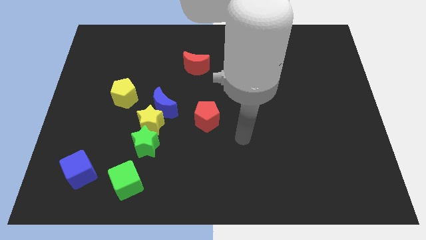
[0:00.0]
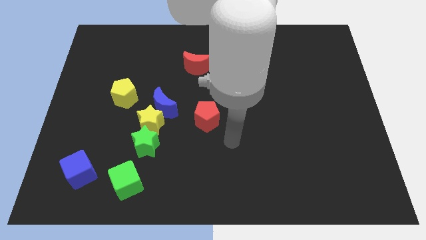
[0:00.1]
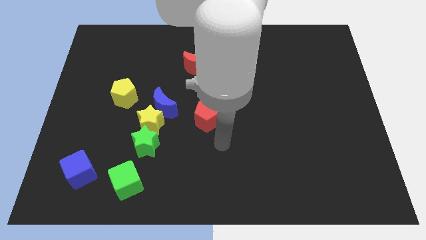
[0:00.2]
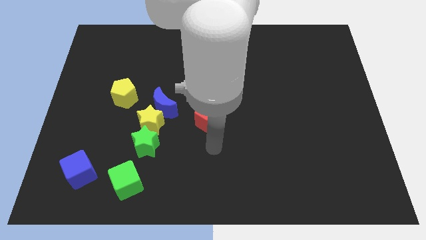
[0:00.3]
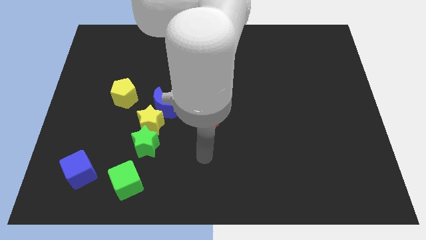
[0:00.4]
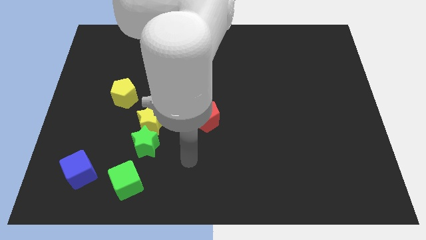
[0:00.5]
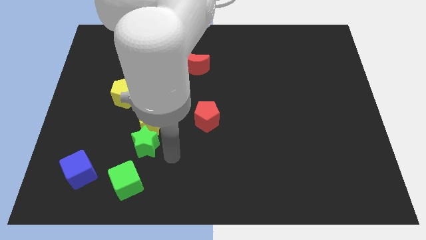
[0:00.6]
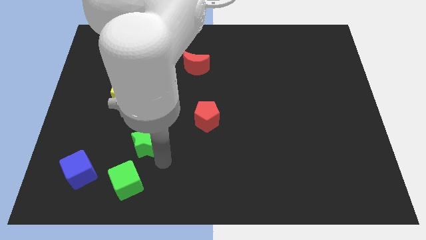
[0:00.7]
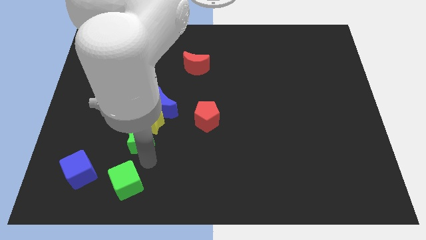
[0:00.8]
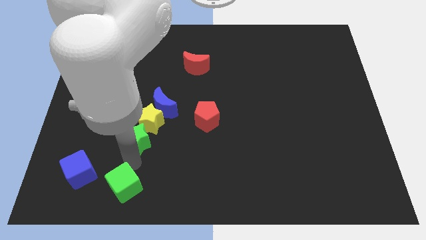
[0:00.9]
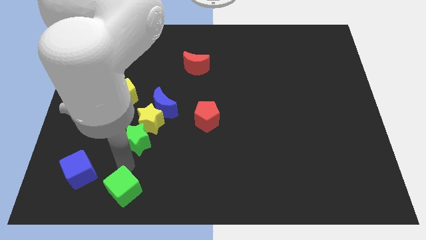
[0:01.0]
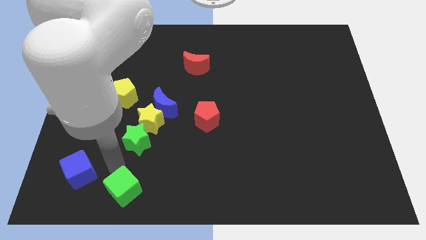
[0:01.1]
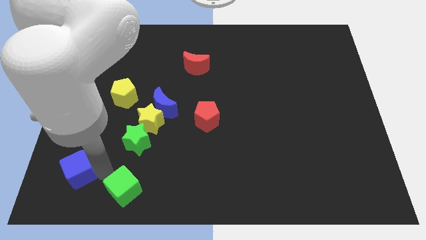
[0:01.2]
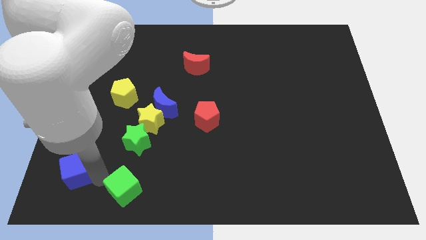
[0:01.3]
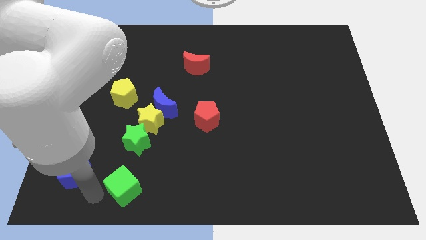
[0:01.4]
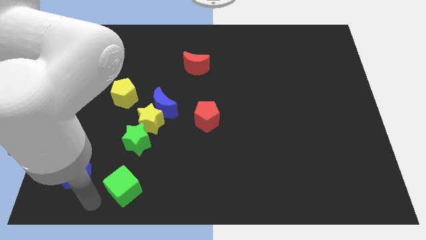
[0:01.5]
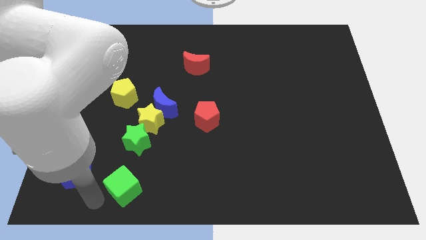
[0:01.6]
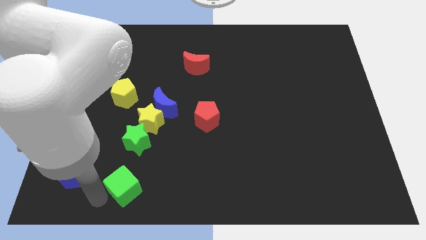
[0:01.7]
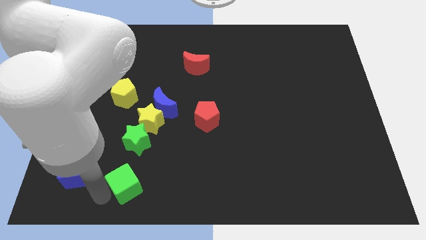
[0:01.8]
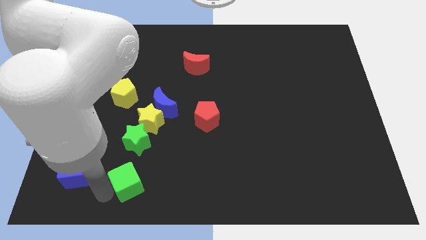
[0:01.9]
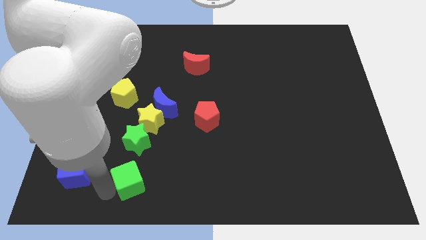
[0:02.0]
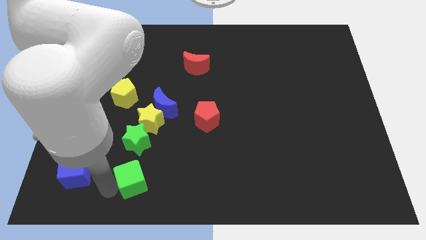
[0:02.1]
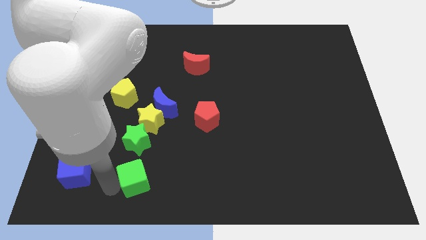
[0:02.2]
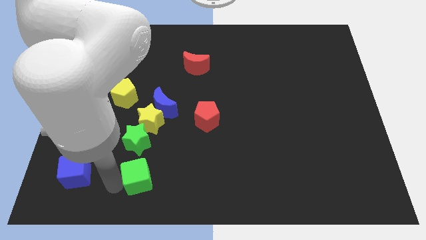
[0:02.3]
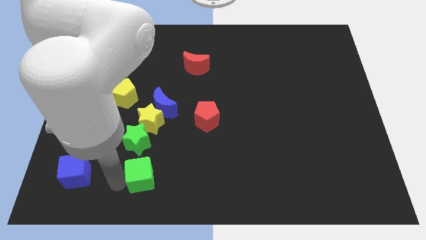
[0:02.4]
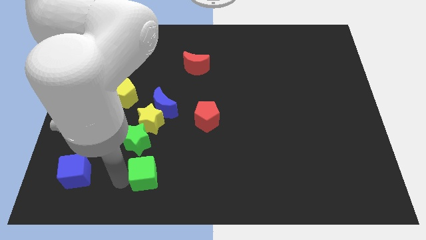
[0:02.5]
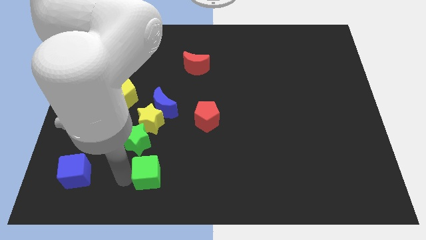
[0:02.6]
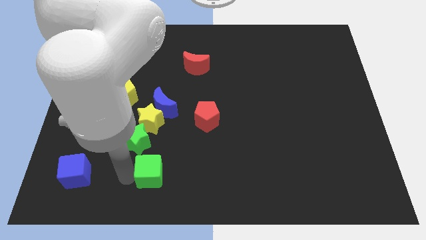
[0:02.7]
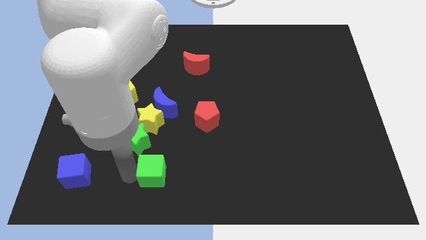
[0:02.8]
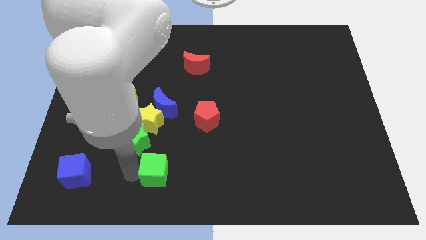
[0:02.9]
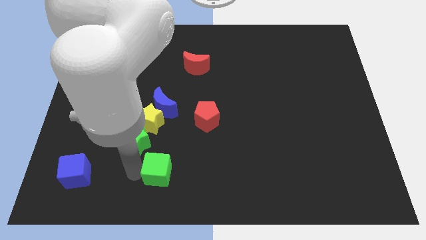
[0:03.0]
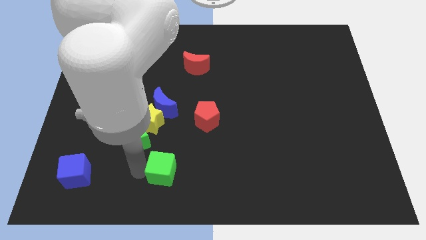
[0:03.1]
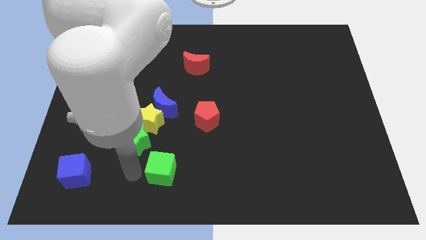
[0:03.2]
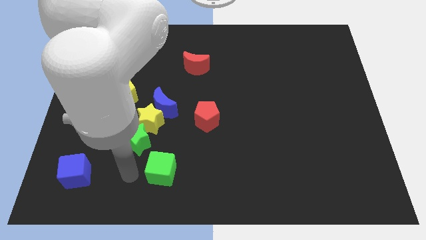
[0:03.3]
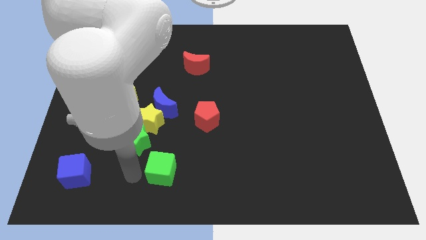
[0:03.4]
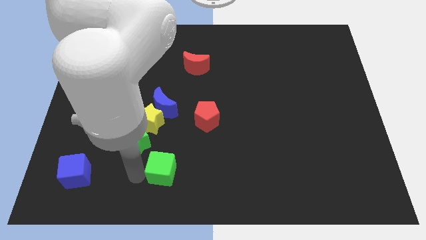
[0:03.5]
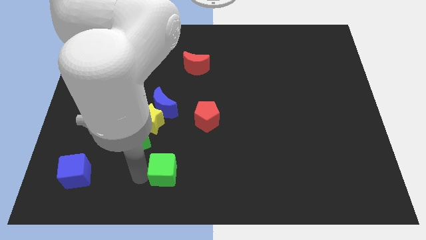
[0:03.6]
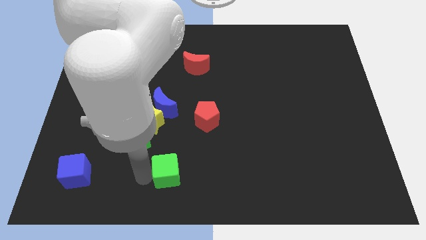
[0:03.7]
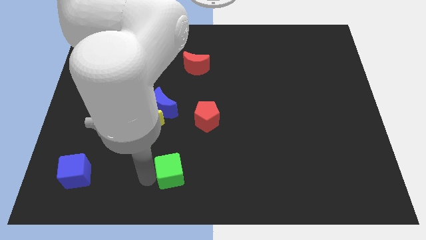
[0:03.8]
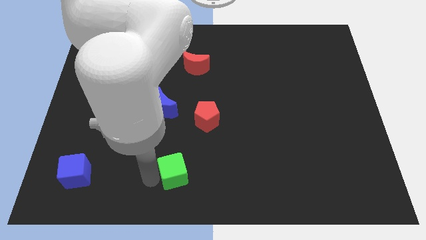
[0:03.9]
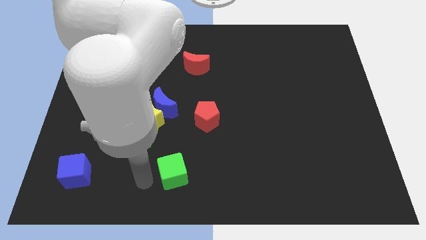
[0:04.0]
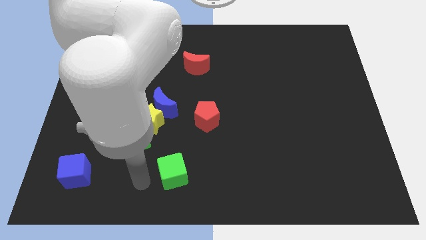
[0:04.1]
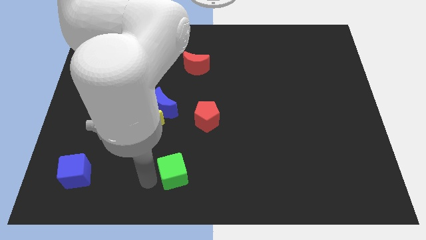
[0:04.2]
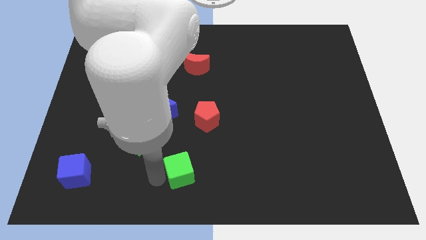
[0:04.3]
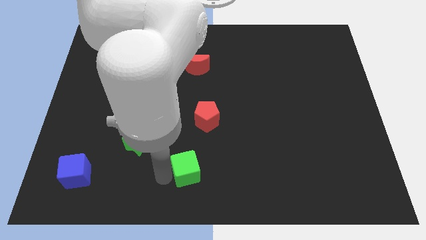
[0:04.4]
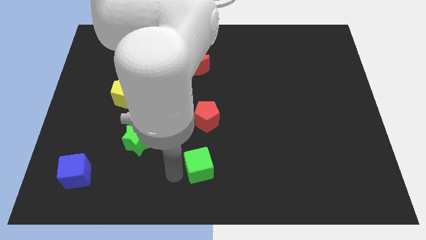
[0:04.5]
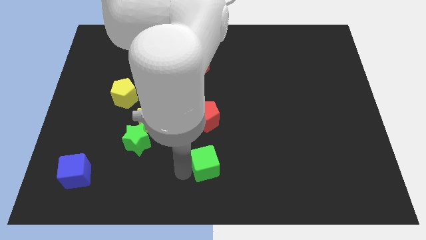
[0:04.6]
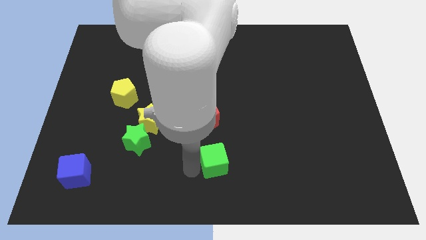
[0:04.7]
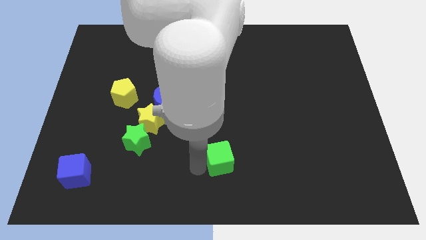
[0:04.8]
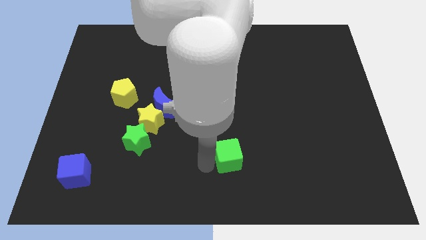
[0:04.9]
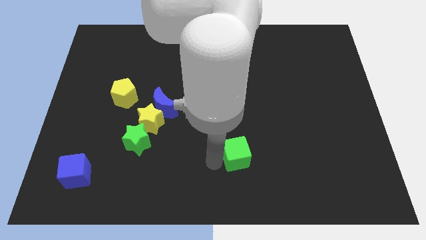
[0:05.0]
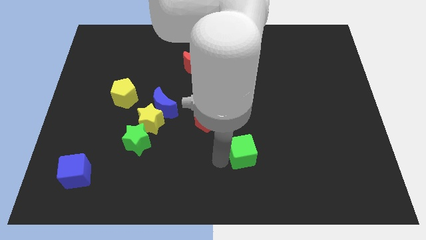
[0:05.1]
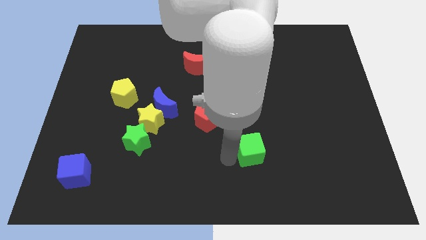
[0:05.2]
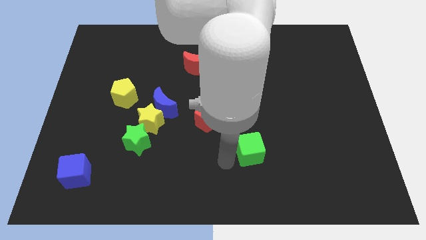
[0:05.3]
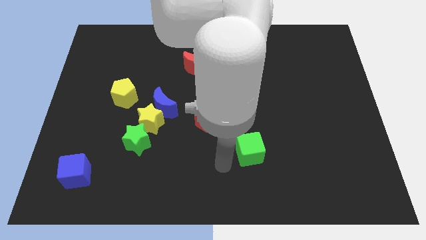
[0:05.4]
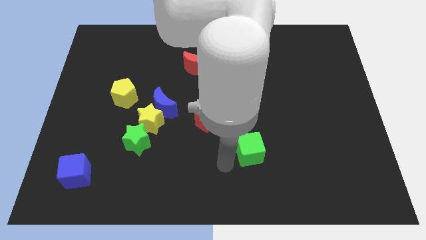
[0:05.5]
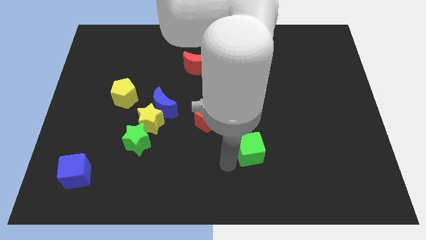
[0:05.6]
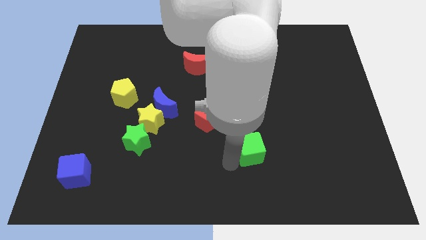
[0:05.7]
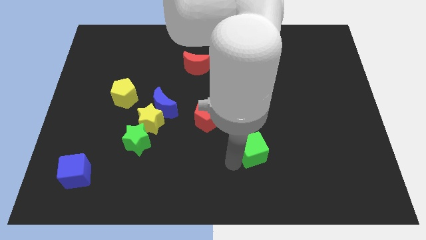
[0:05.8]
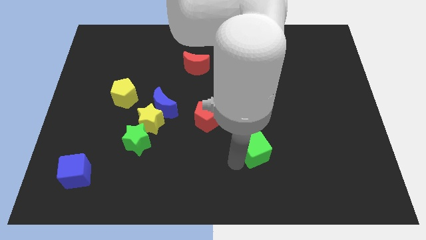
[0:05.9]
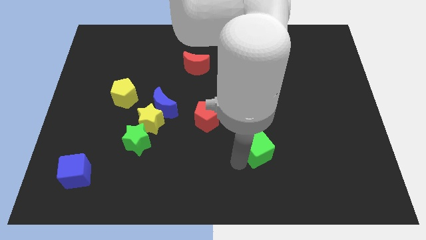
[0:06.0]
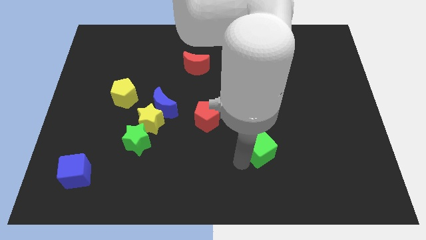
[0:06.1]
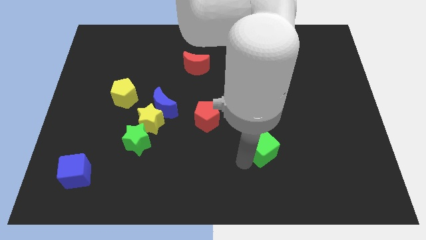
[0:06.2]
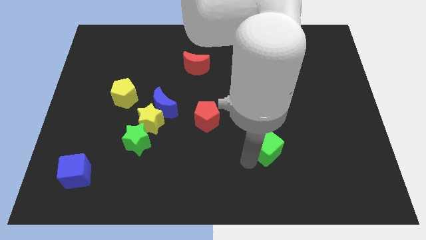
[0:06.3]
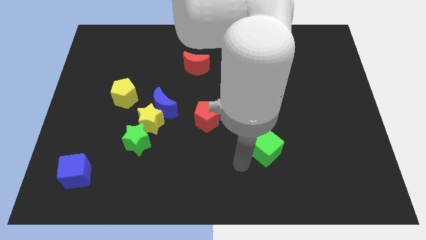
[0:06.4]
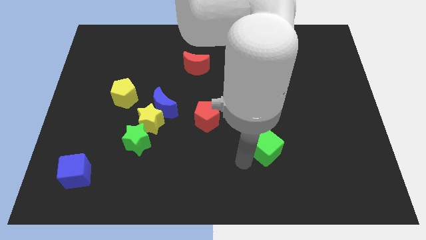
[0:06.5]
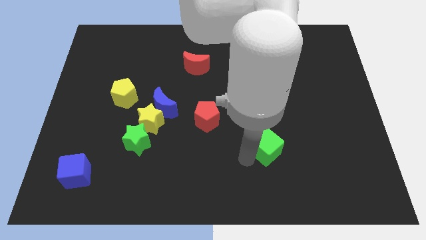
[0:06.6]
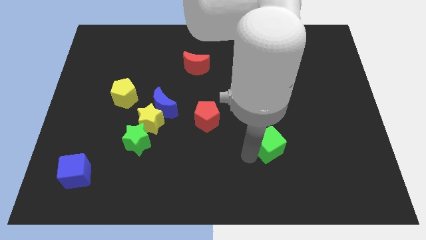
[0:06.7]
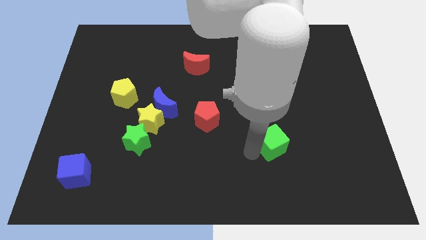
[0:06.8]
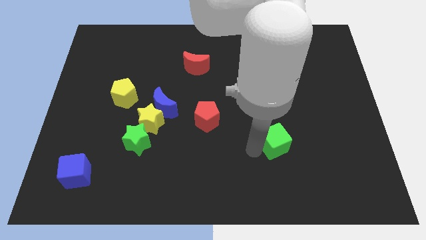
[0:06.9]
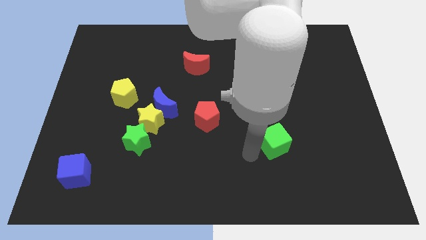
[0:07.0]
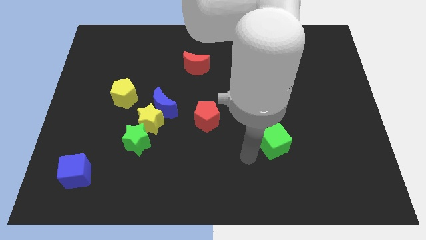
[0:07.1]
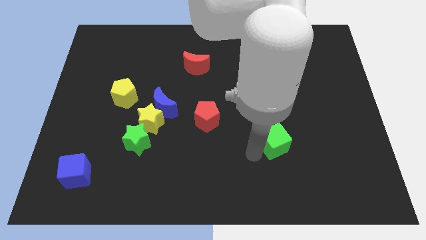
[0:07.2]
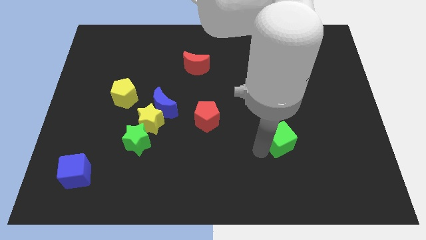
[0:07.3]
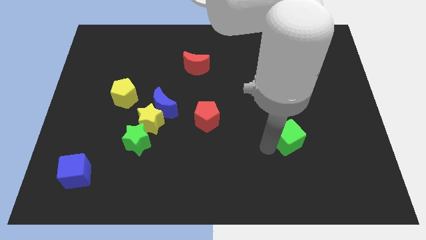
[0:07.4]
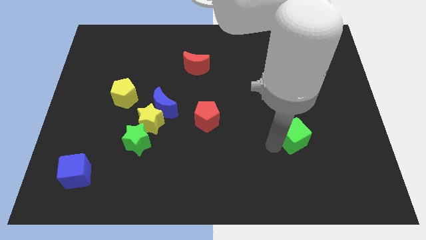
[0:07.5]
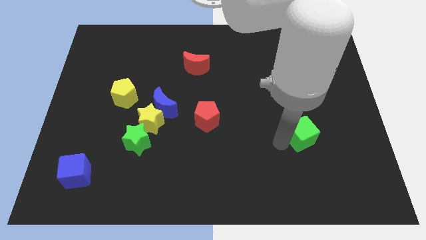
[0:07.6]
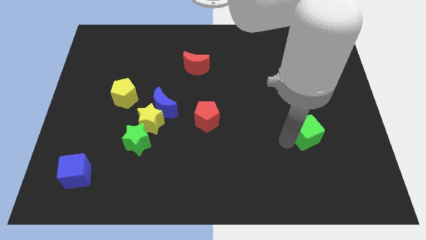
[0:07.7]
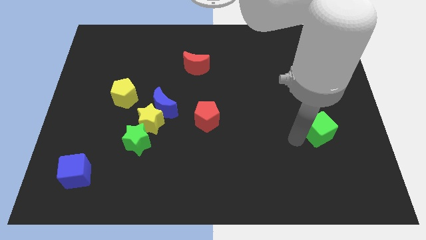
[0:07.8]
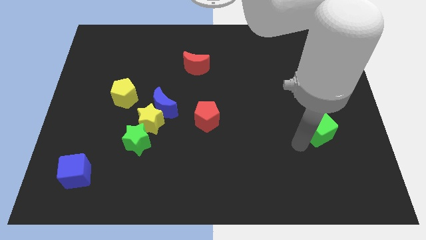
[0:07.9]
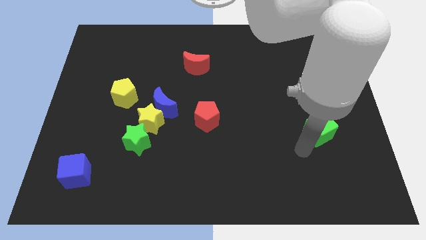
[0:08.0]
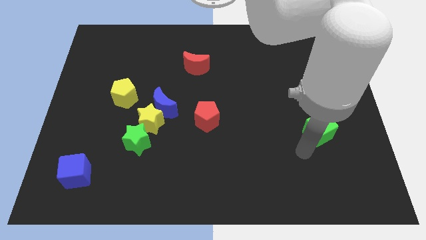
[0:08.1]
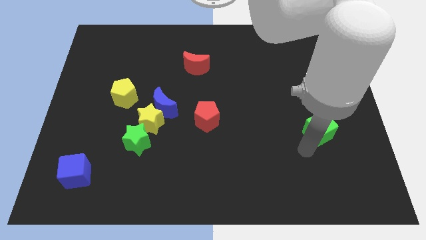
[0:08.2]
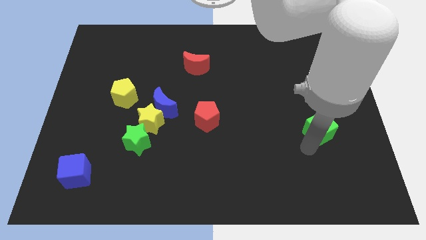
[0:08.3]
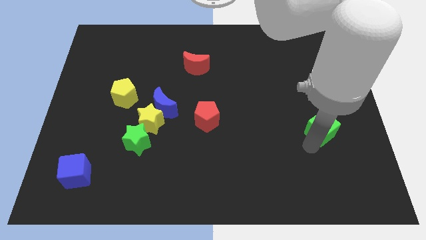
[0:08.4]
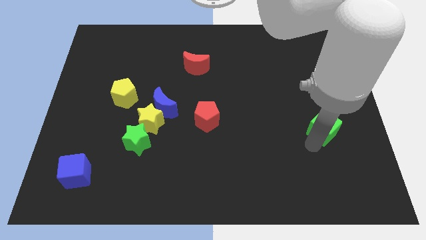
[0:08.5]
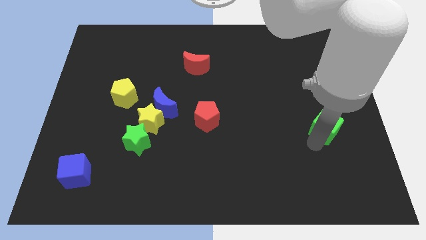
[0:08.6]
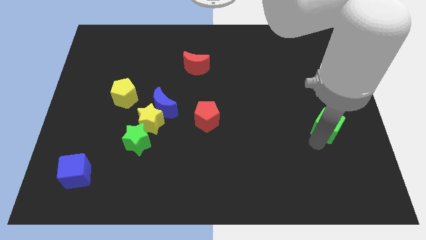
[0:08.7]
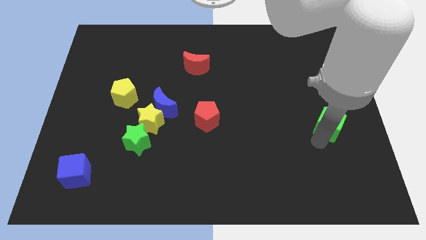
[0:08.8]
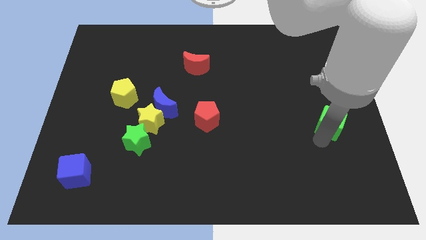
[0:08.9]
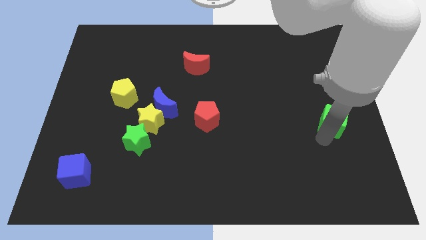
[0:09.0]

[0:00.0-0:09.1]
move the green cube to the center right
